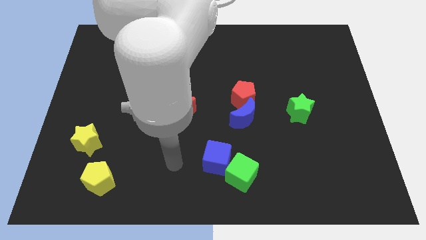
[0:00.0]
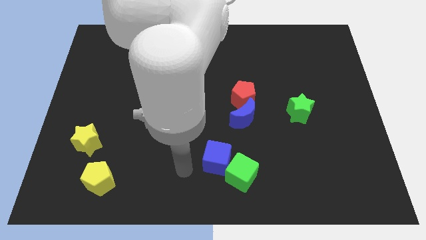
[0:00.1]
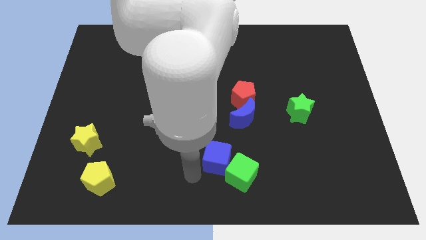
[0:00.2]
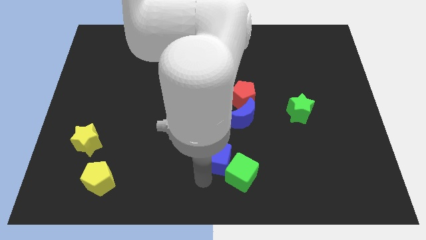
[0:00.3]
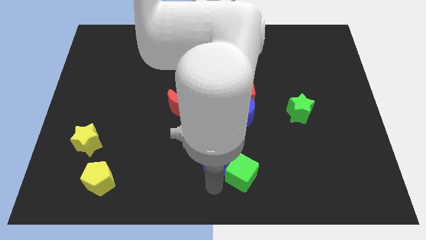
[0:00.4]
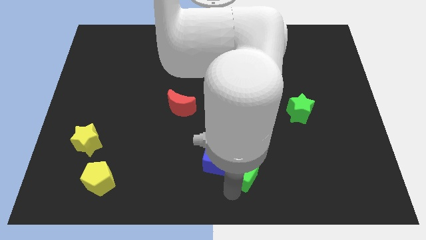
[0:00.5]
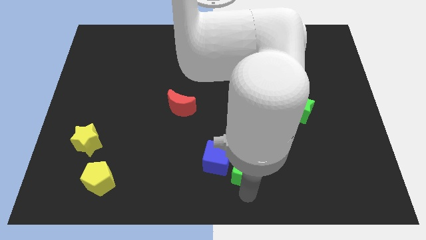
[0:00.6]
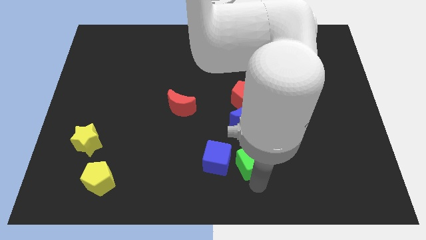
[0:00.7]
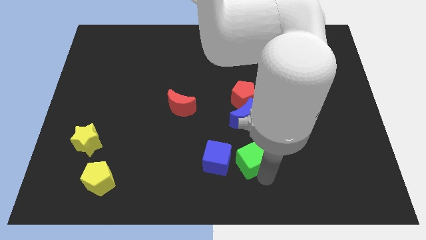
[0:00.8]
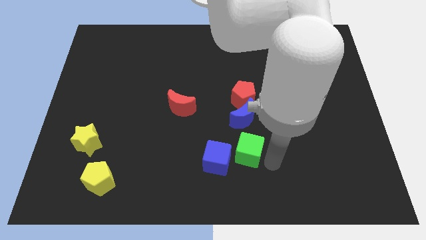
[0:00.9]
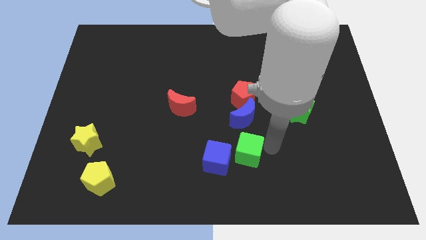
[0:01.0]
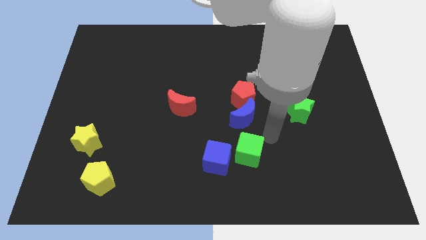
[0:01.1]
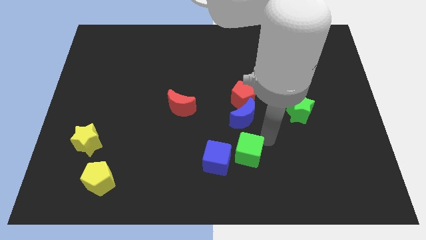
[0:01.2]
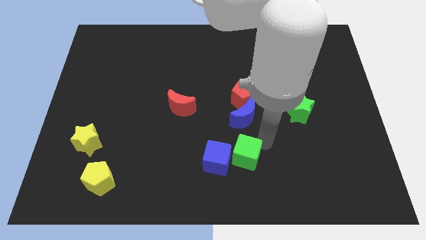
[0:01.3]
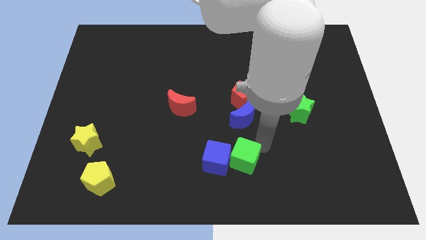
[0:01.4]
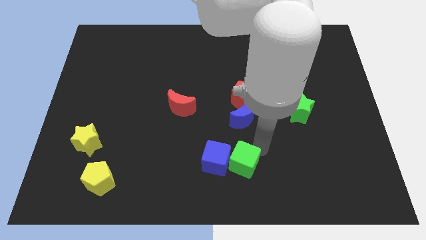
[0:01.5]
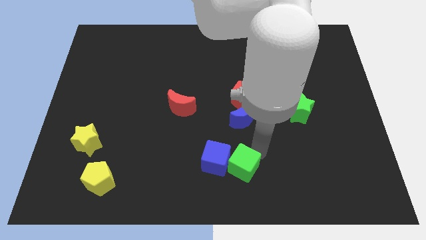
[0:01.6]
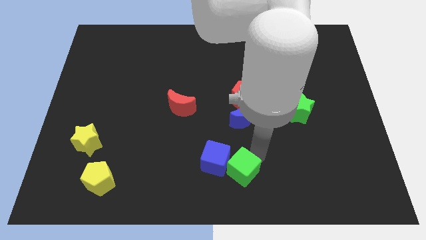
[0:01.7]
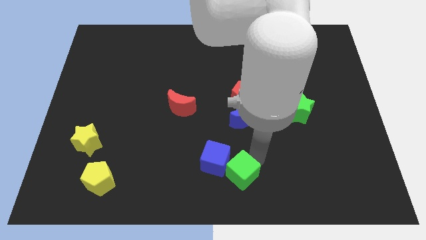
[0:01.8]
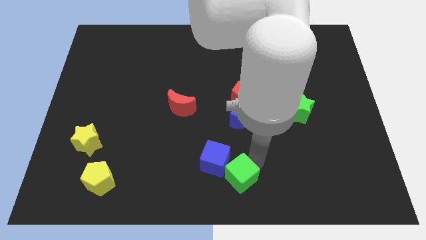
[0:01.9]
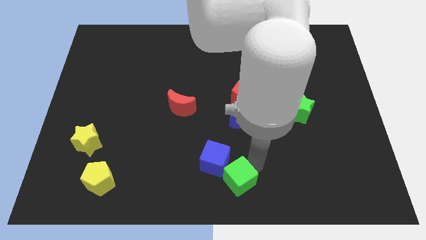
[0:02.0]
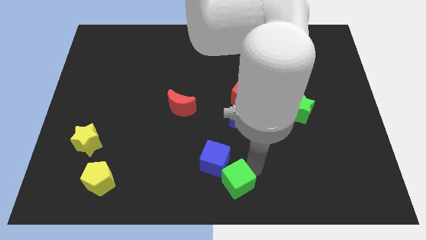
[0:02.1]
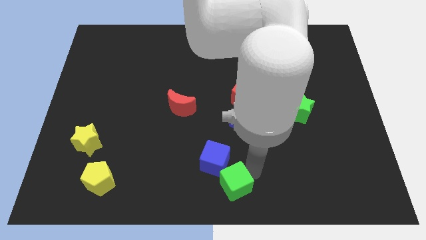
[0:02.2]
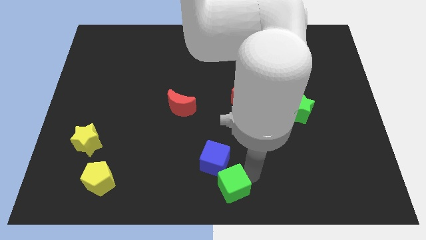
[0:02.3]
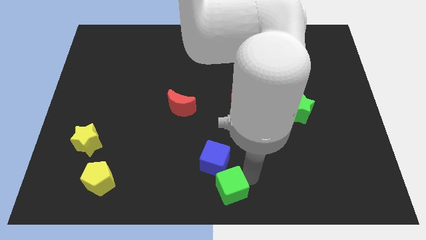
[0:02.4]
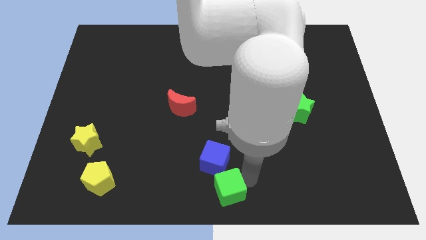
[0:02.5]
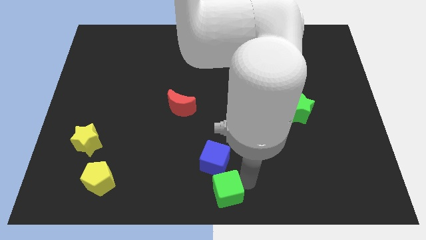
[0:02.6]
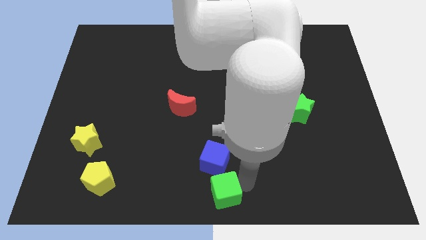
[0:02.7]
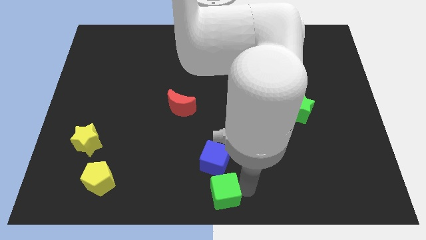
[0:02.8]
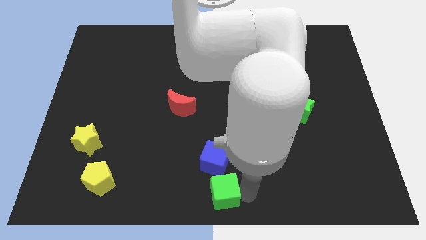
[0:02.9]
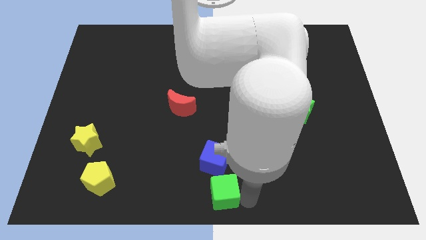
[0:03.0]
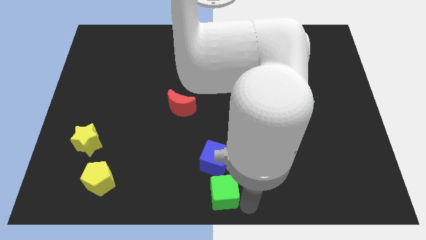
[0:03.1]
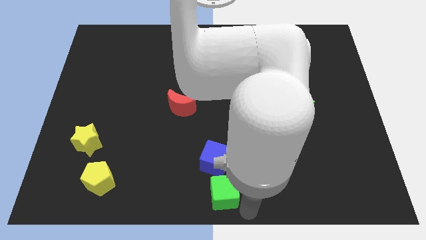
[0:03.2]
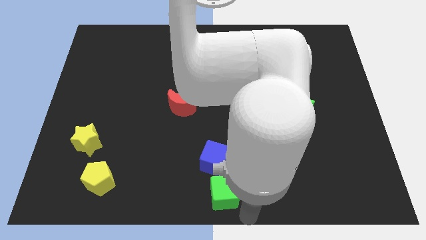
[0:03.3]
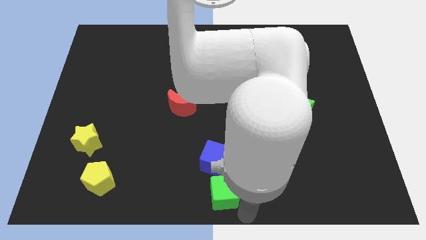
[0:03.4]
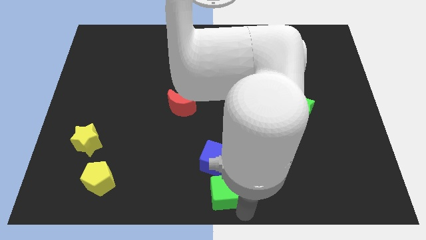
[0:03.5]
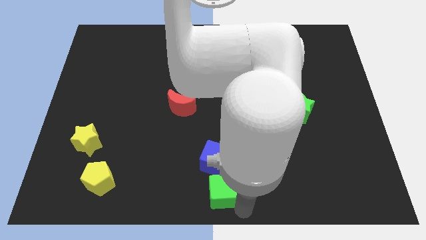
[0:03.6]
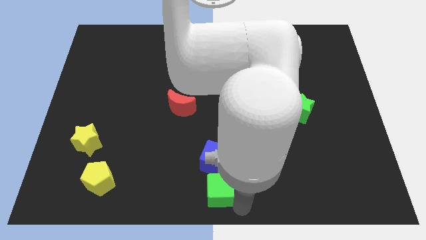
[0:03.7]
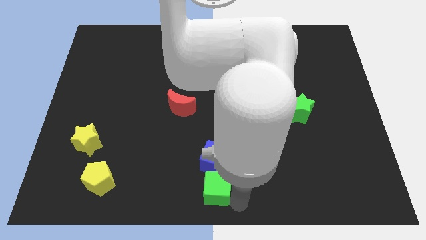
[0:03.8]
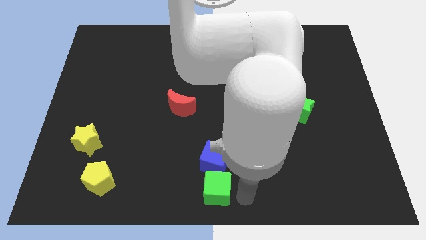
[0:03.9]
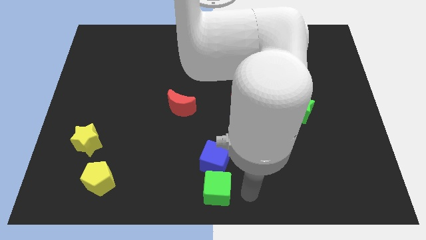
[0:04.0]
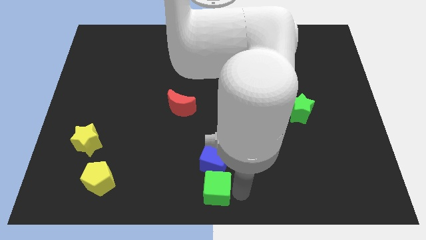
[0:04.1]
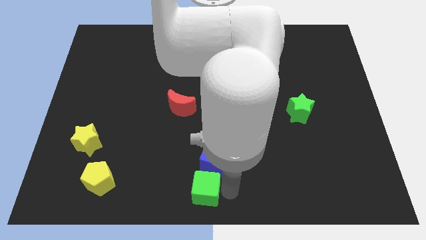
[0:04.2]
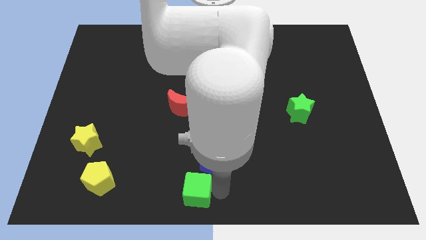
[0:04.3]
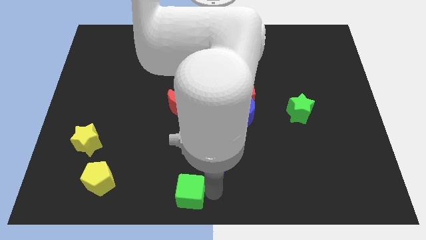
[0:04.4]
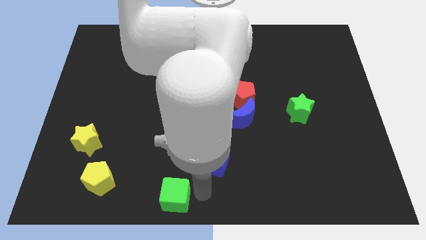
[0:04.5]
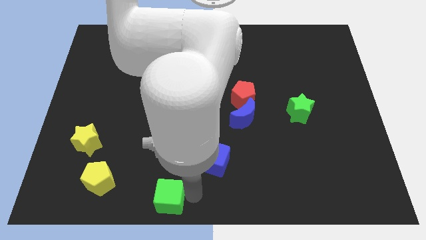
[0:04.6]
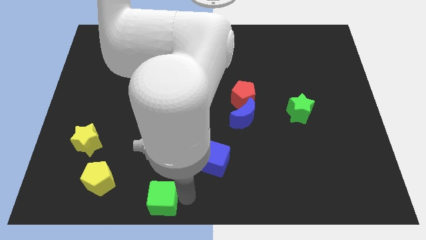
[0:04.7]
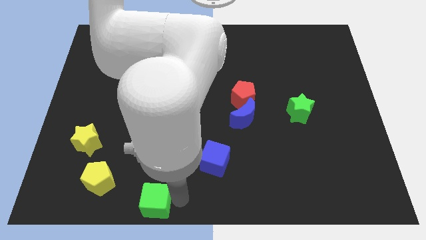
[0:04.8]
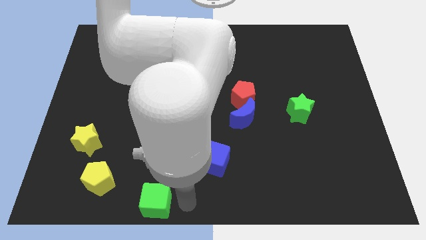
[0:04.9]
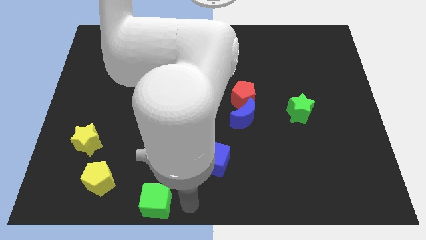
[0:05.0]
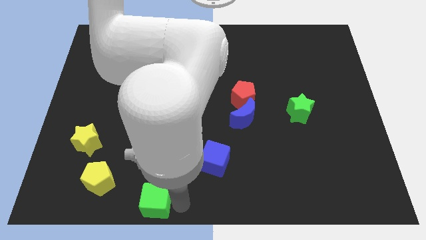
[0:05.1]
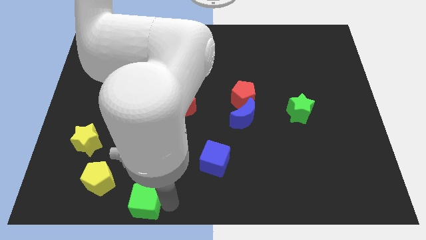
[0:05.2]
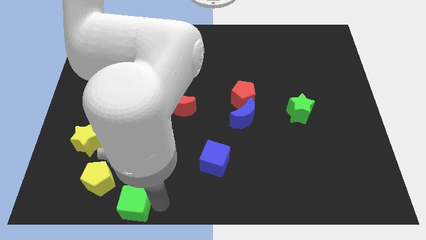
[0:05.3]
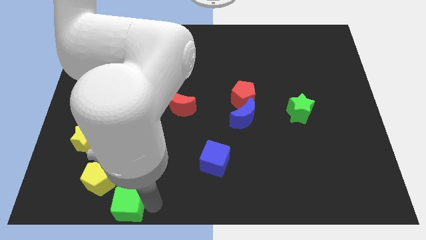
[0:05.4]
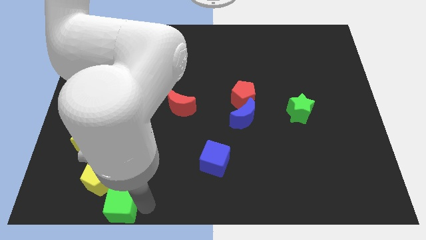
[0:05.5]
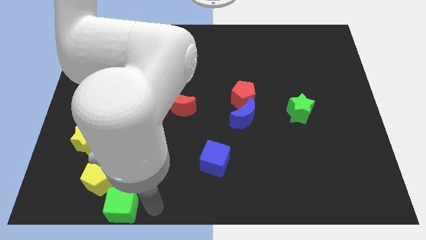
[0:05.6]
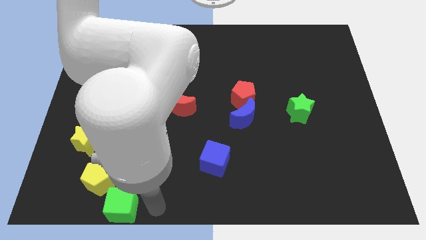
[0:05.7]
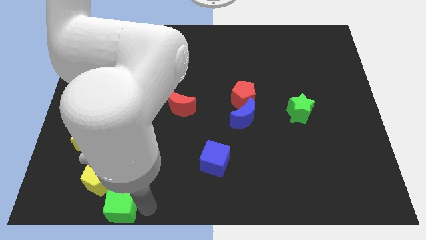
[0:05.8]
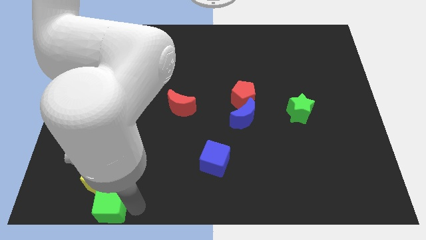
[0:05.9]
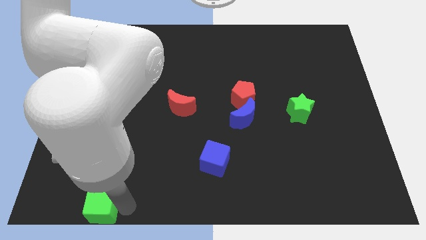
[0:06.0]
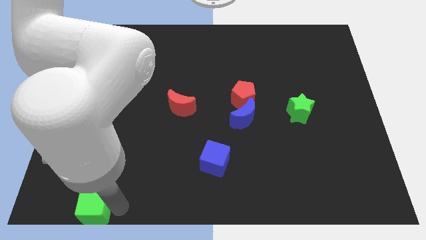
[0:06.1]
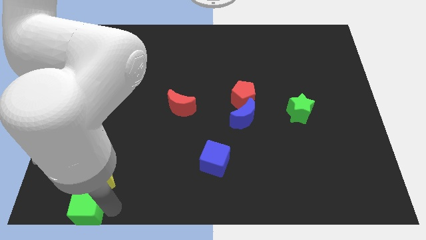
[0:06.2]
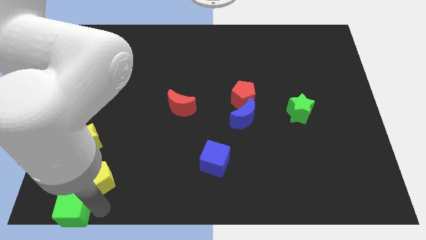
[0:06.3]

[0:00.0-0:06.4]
move the green cube to the bottom left of the board

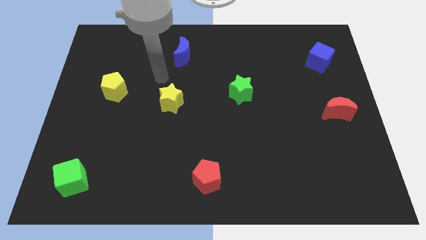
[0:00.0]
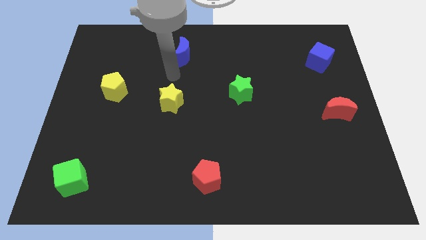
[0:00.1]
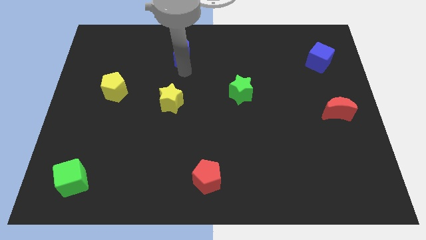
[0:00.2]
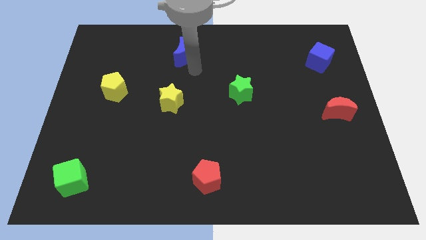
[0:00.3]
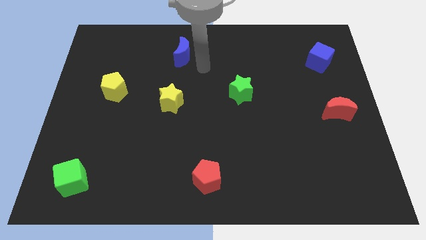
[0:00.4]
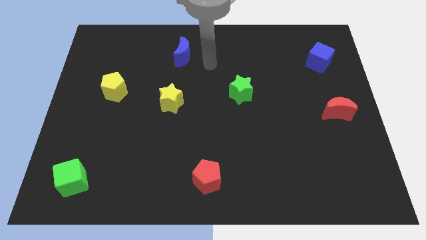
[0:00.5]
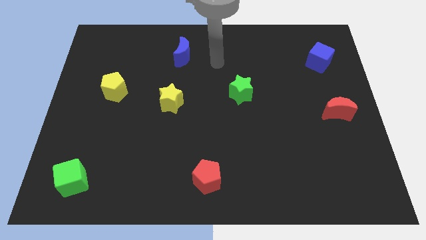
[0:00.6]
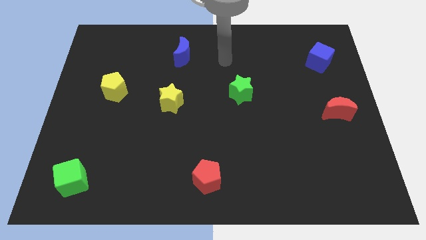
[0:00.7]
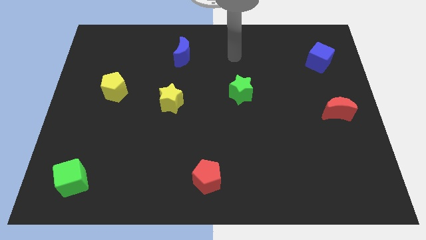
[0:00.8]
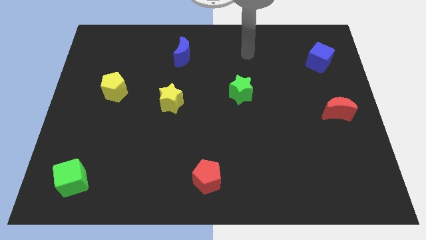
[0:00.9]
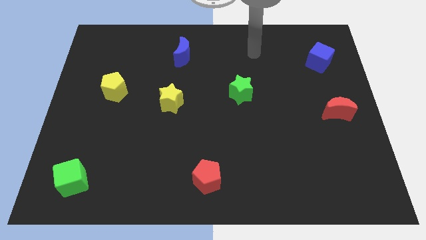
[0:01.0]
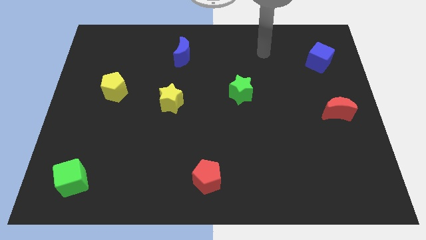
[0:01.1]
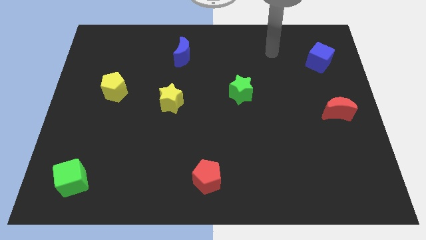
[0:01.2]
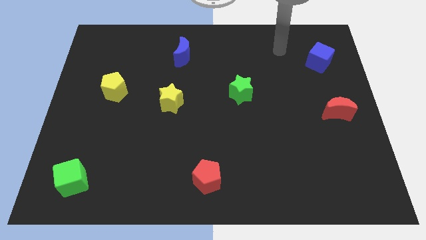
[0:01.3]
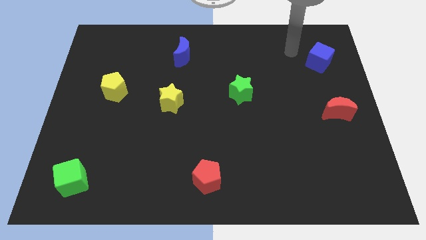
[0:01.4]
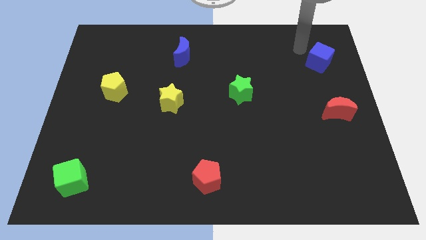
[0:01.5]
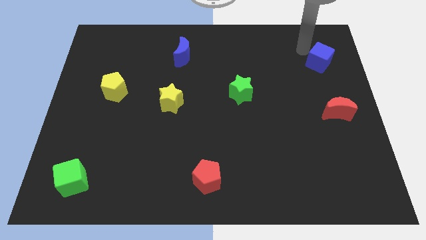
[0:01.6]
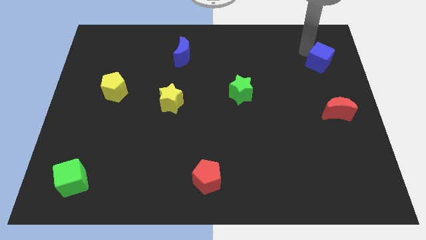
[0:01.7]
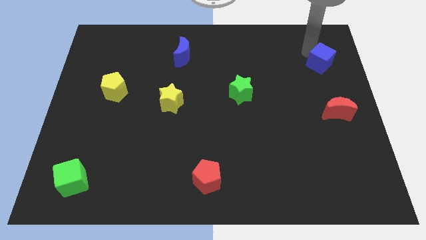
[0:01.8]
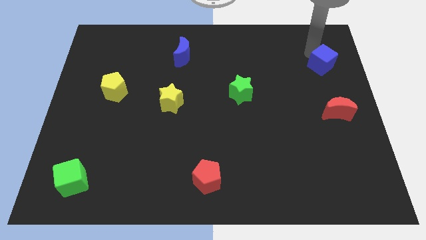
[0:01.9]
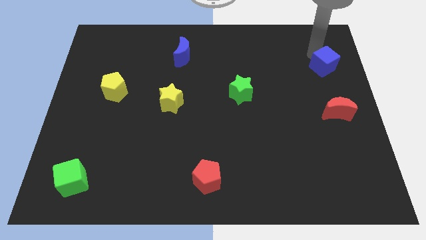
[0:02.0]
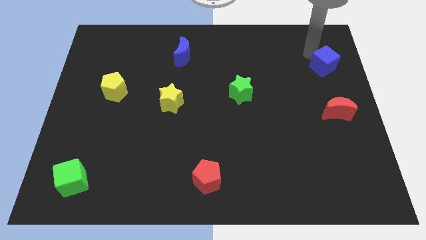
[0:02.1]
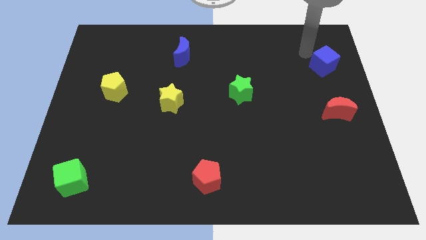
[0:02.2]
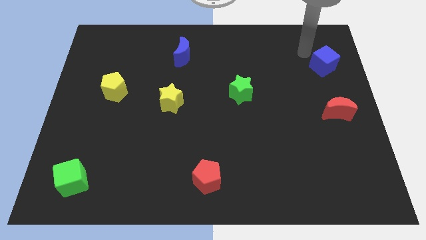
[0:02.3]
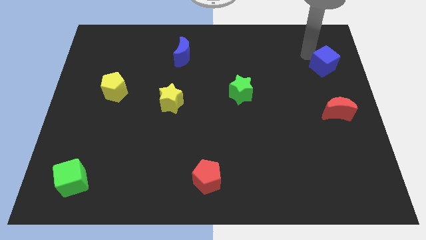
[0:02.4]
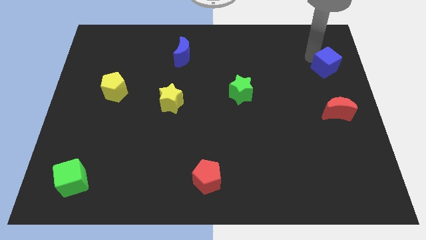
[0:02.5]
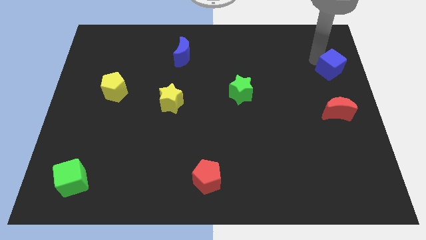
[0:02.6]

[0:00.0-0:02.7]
put the blue cube to the center right
